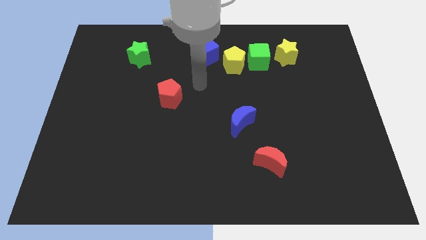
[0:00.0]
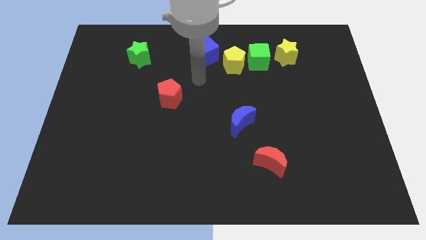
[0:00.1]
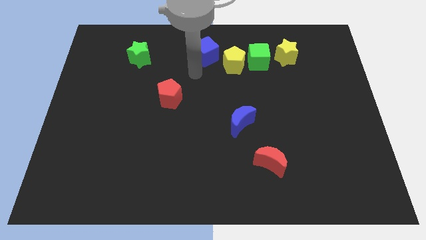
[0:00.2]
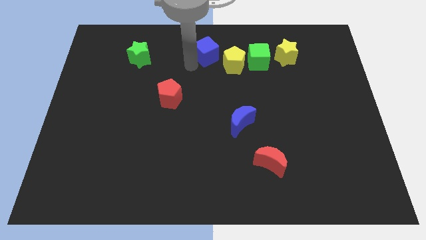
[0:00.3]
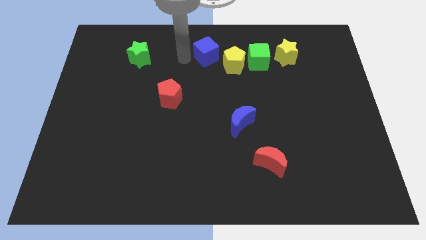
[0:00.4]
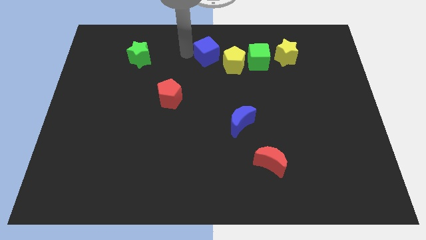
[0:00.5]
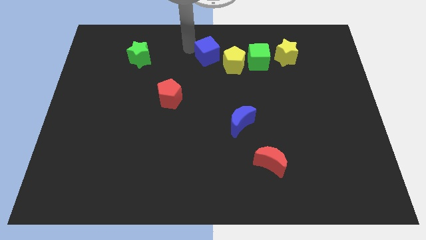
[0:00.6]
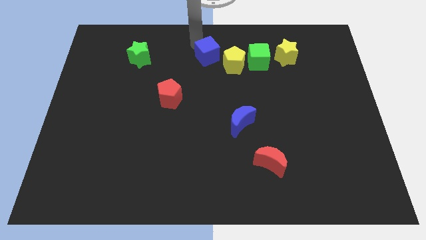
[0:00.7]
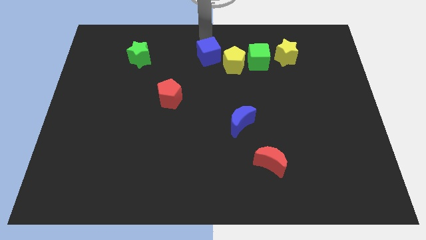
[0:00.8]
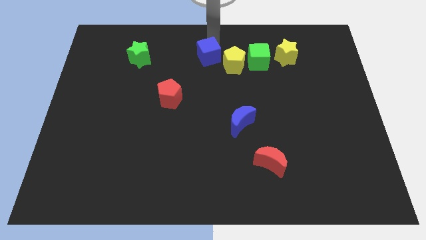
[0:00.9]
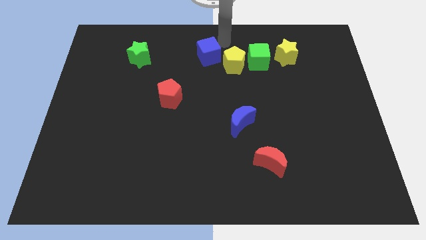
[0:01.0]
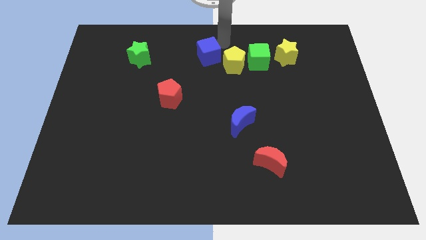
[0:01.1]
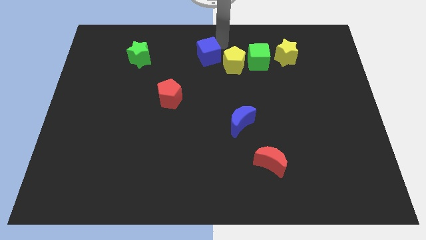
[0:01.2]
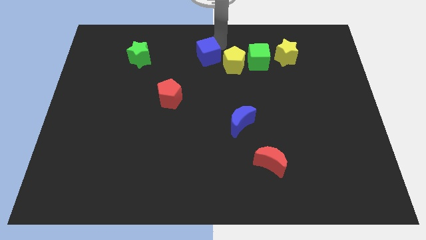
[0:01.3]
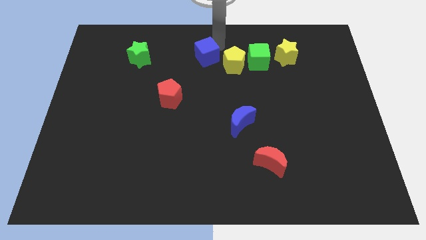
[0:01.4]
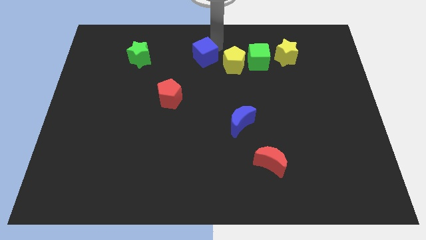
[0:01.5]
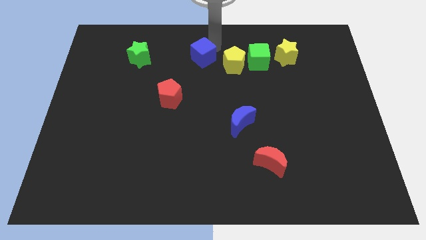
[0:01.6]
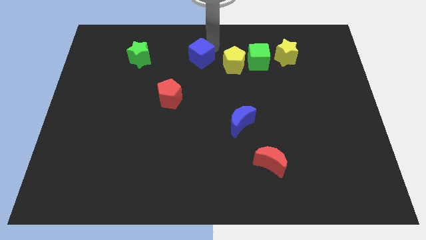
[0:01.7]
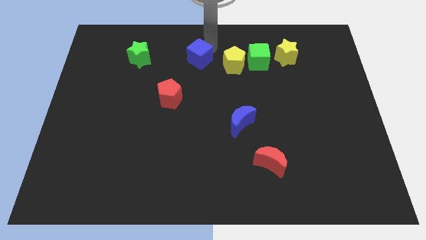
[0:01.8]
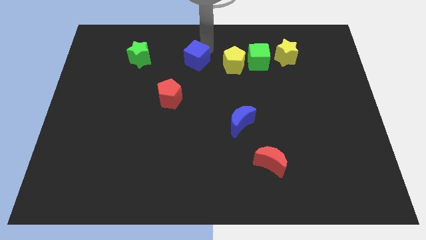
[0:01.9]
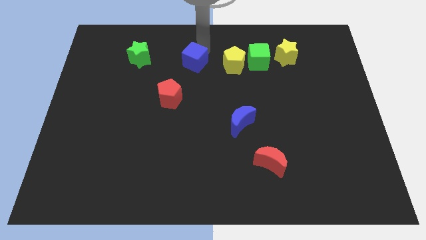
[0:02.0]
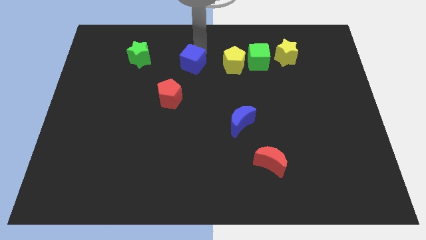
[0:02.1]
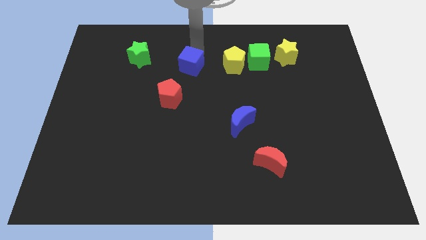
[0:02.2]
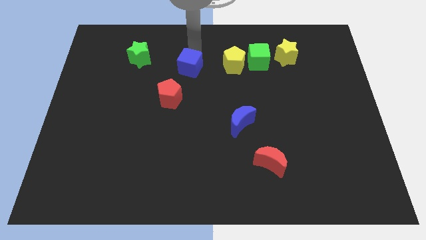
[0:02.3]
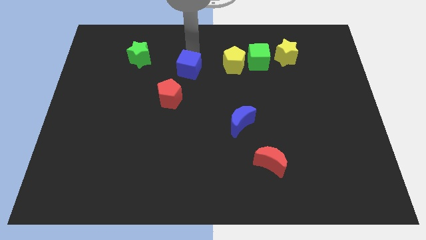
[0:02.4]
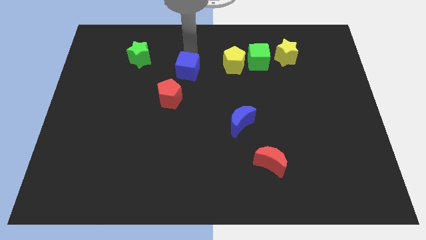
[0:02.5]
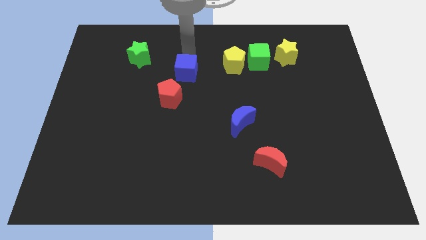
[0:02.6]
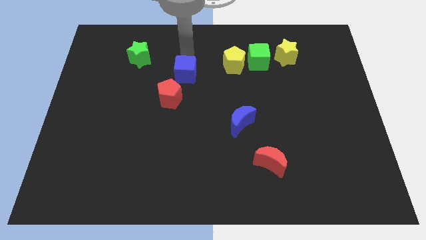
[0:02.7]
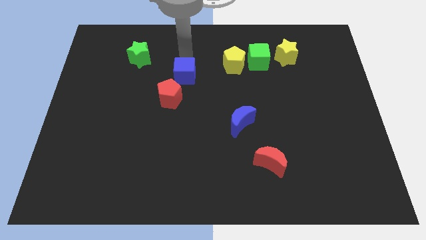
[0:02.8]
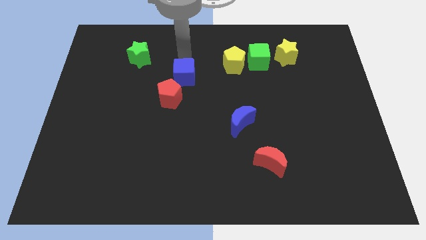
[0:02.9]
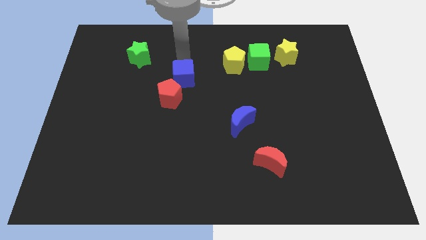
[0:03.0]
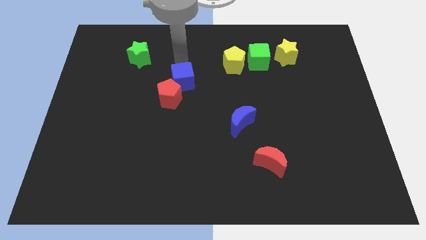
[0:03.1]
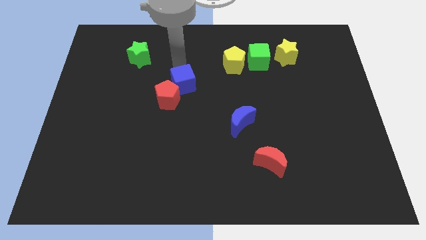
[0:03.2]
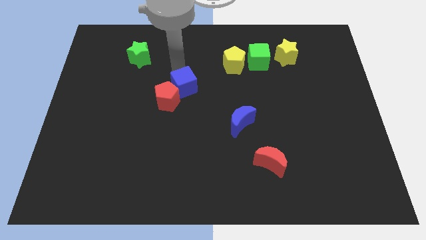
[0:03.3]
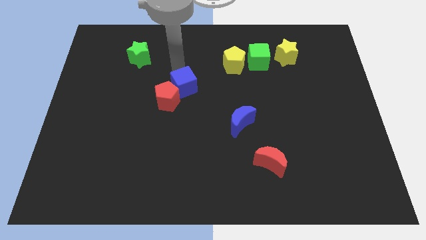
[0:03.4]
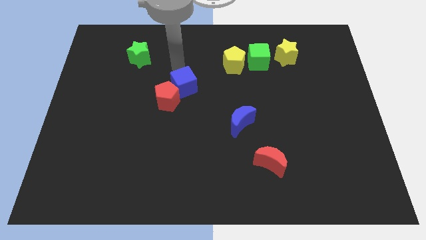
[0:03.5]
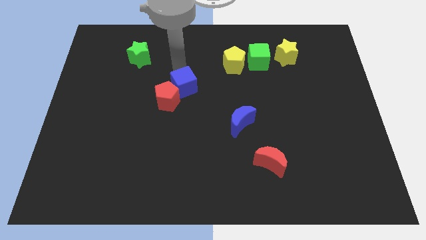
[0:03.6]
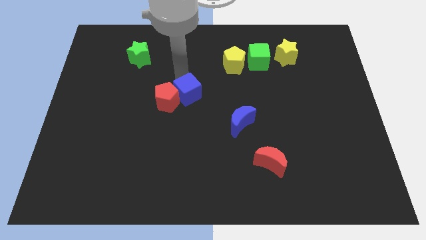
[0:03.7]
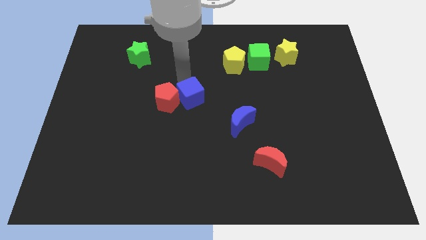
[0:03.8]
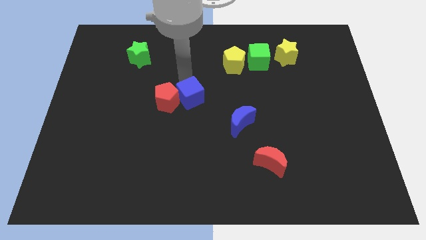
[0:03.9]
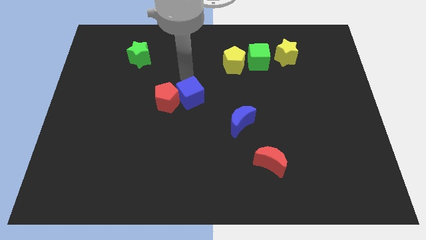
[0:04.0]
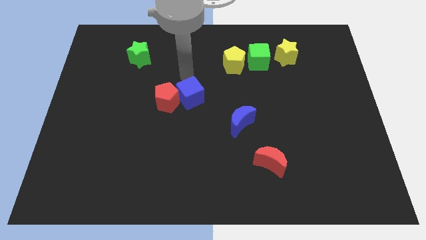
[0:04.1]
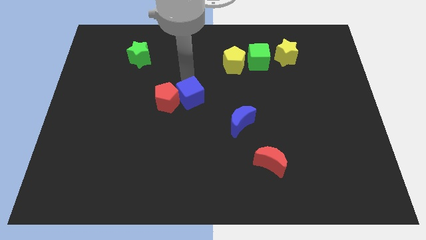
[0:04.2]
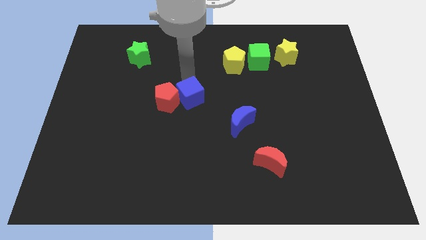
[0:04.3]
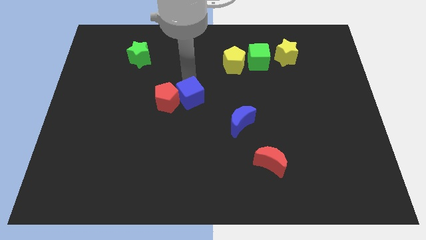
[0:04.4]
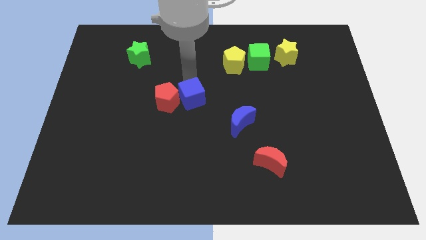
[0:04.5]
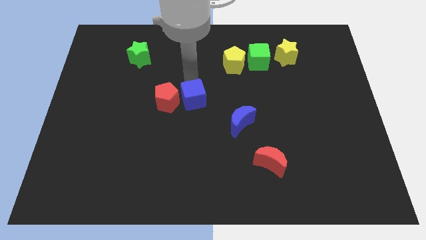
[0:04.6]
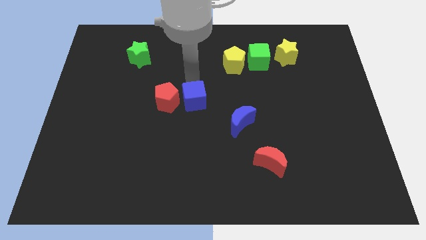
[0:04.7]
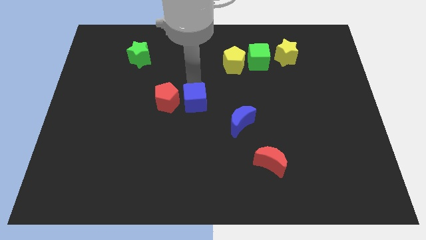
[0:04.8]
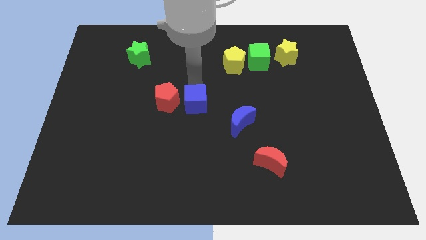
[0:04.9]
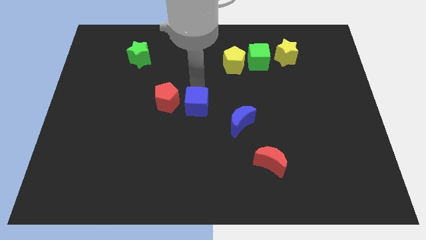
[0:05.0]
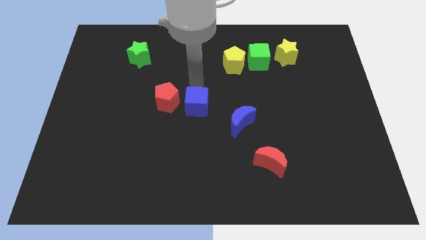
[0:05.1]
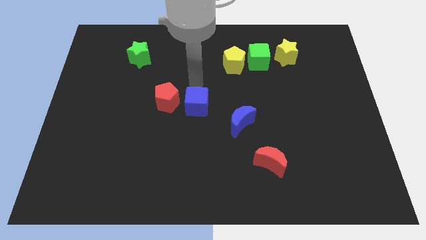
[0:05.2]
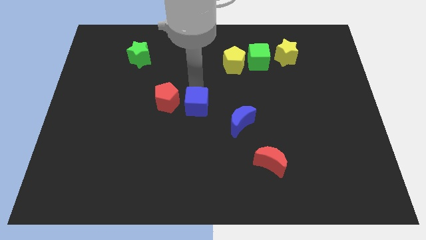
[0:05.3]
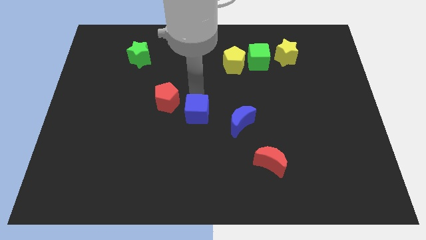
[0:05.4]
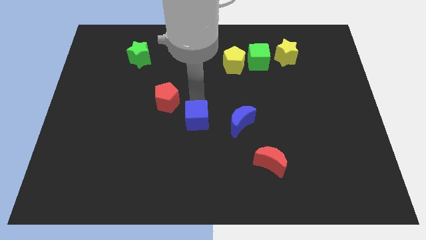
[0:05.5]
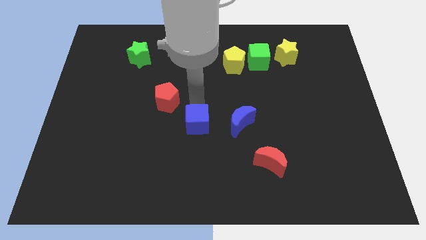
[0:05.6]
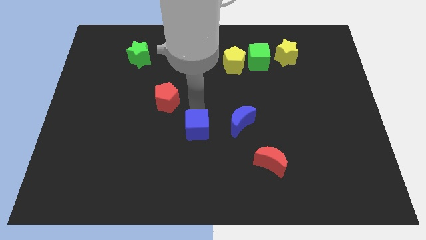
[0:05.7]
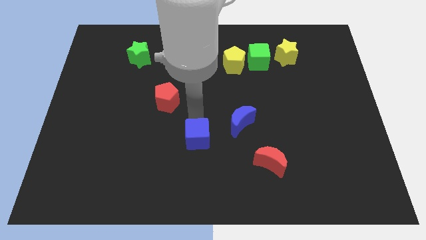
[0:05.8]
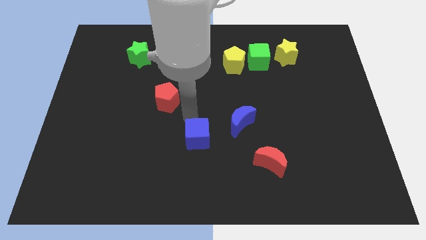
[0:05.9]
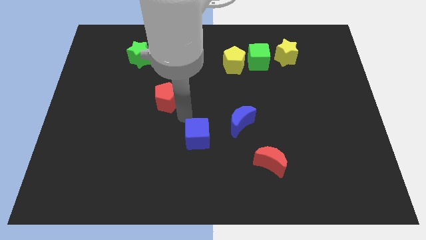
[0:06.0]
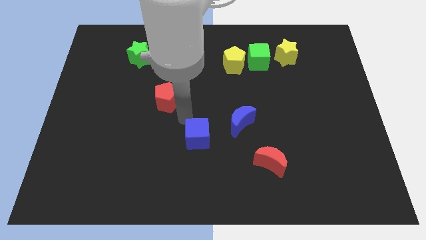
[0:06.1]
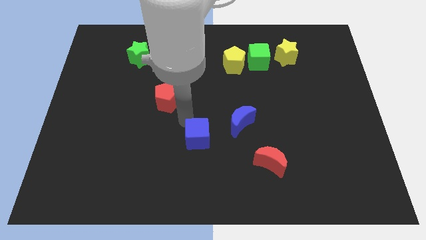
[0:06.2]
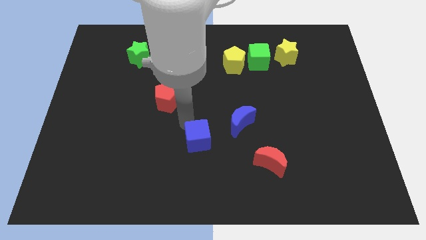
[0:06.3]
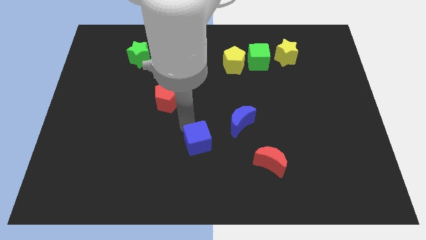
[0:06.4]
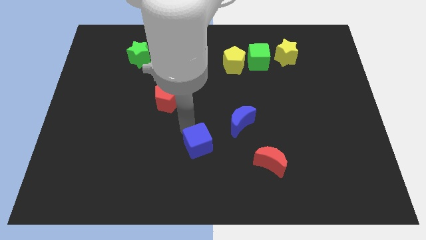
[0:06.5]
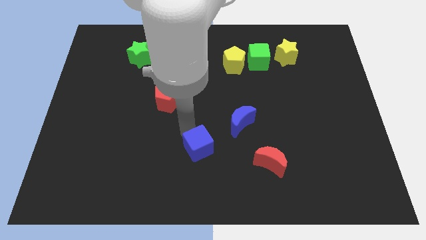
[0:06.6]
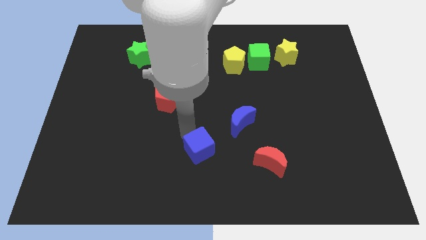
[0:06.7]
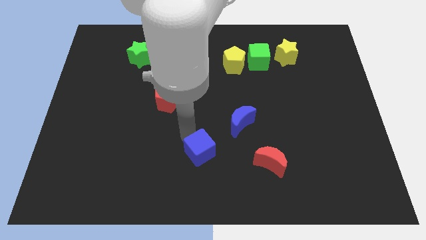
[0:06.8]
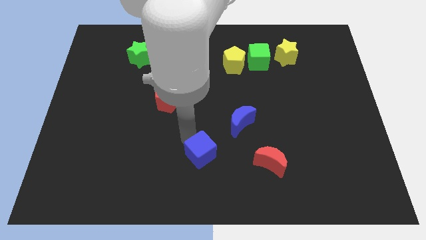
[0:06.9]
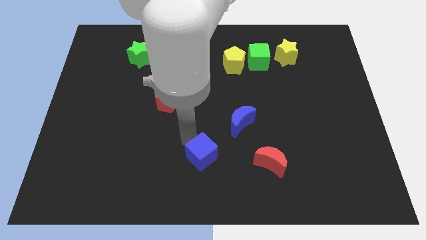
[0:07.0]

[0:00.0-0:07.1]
put the blue cube to the bottom side
